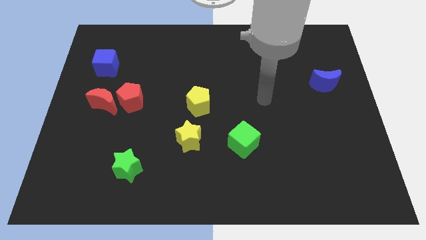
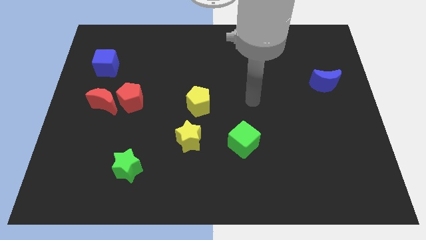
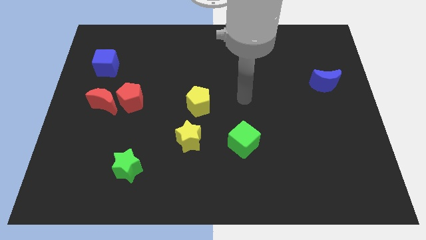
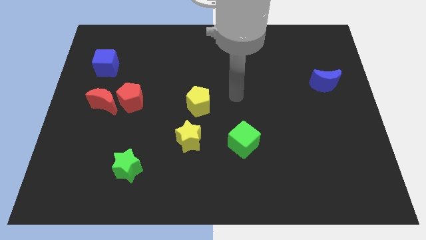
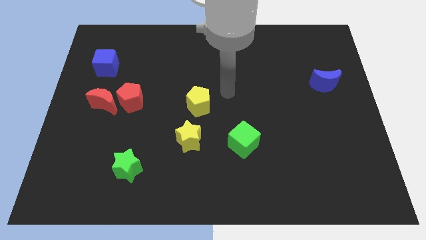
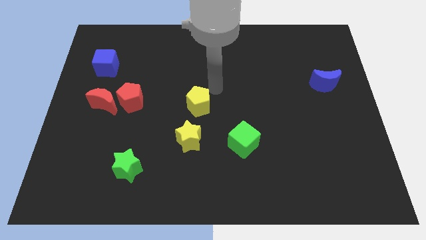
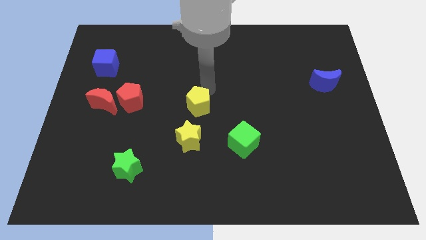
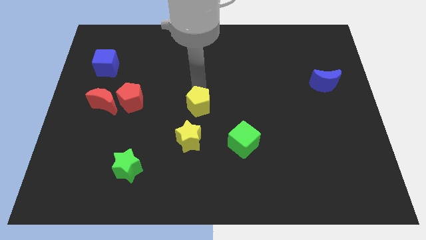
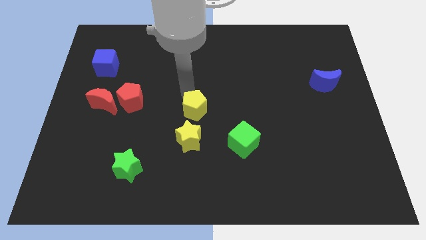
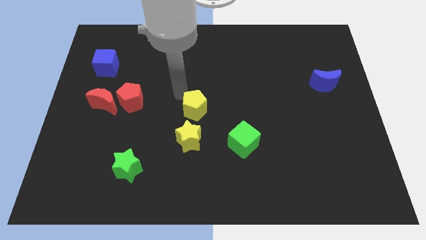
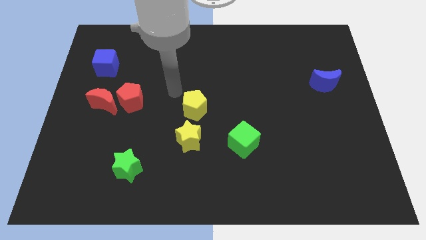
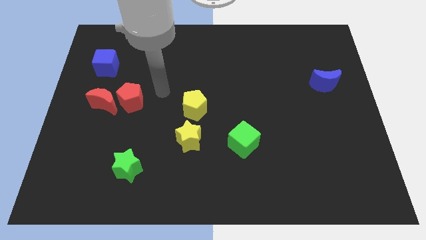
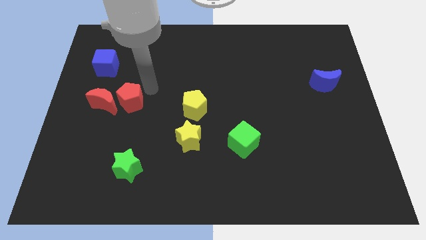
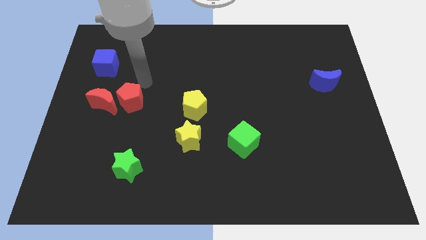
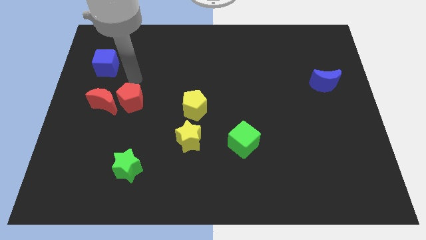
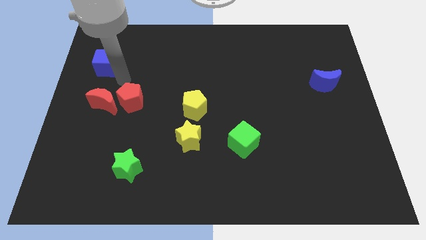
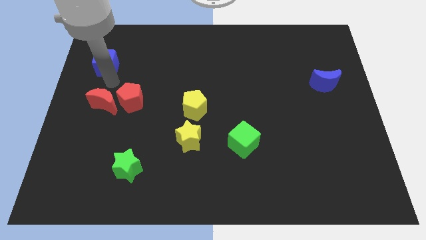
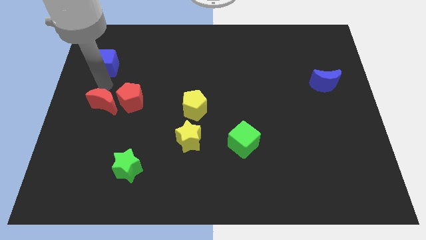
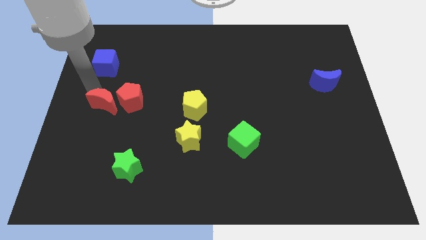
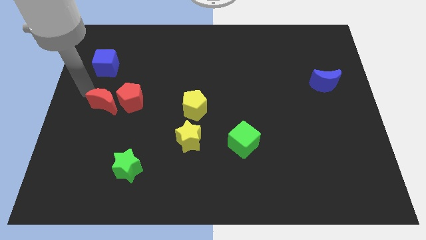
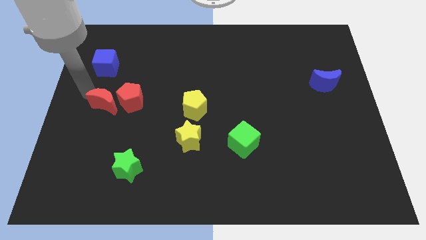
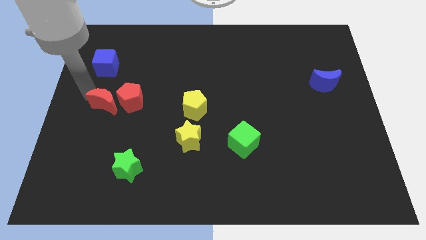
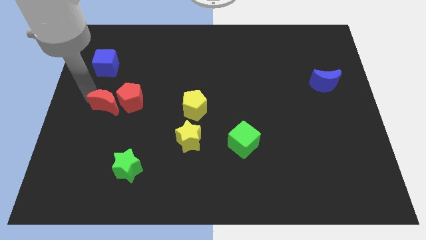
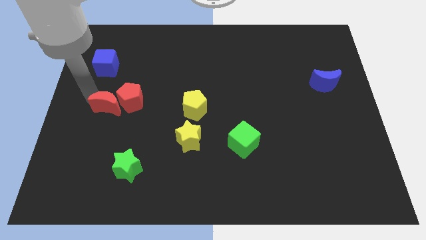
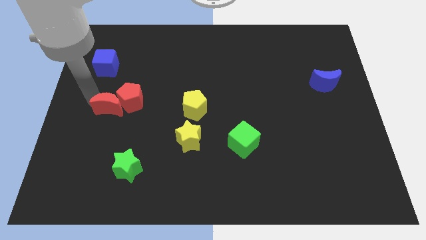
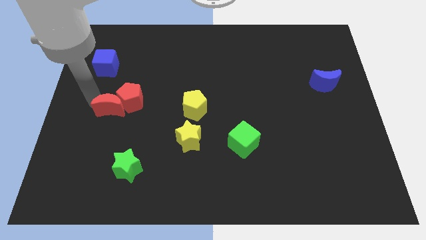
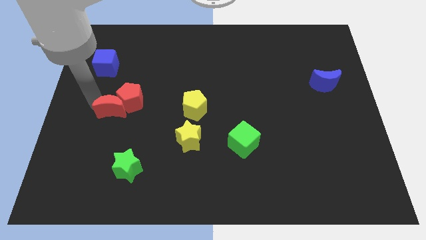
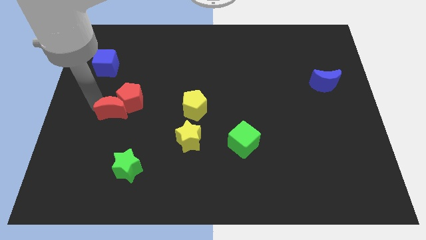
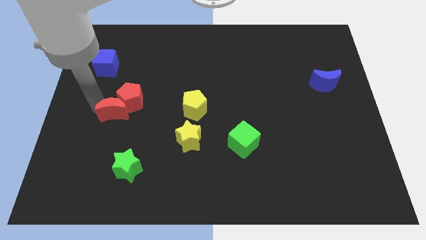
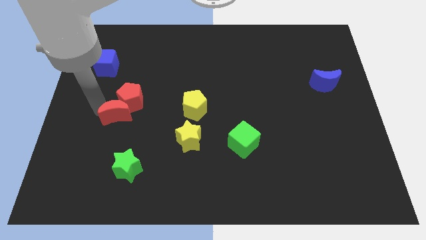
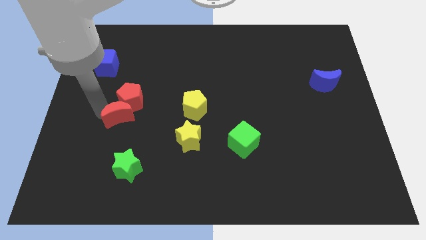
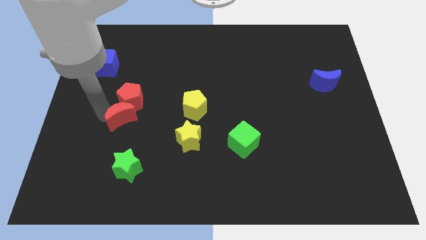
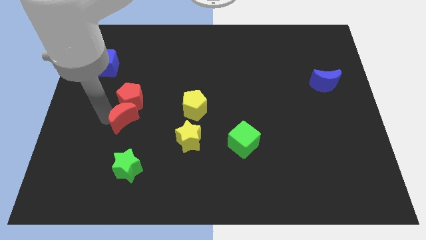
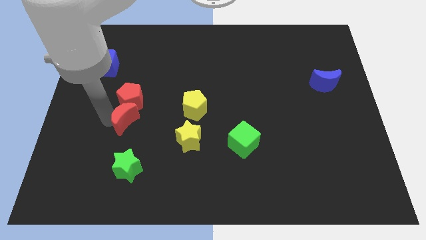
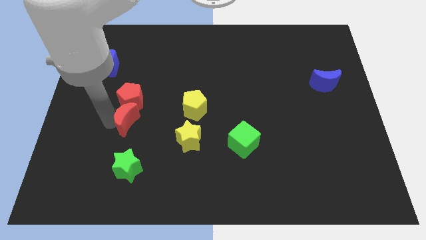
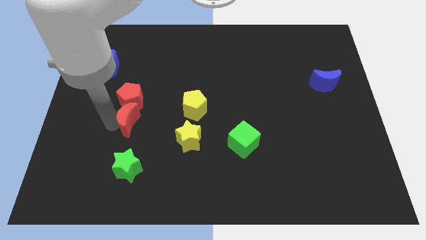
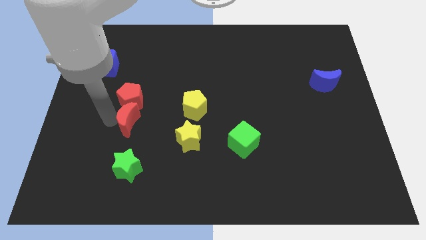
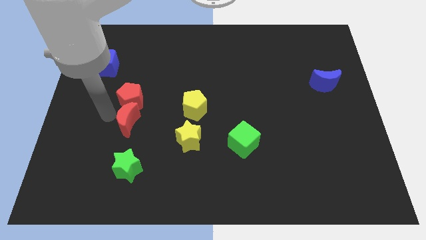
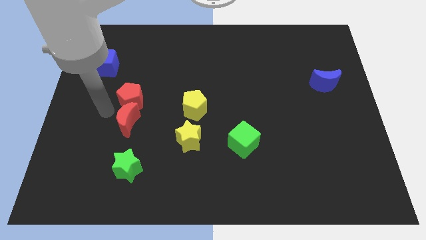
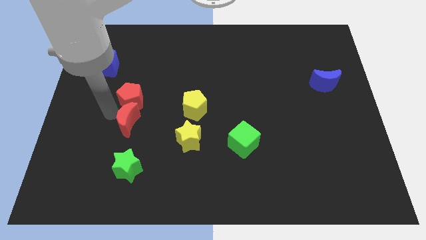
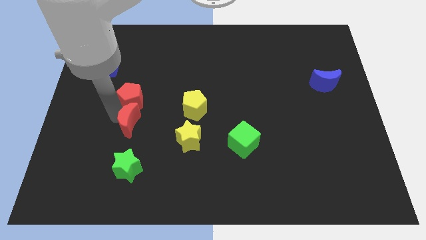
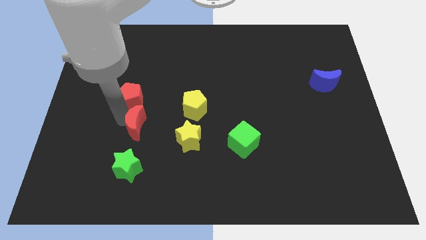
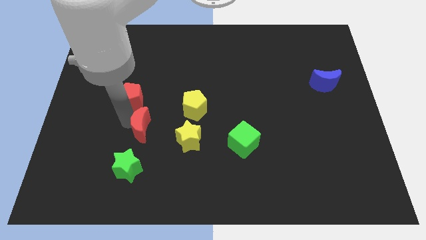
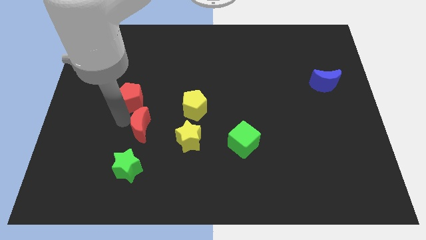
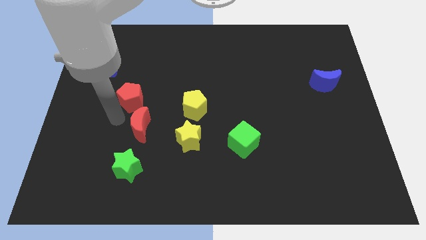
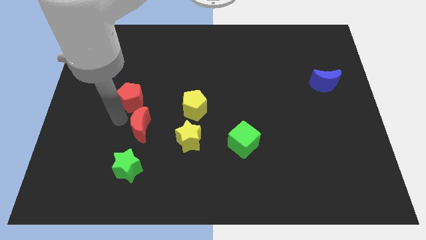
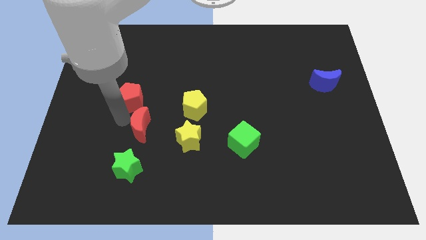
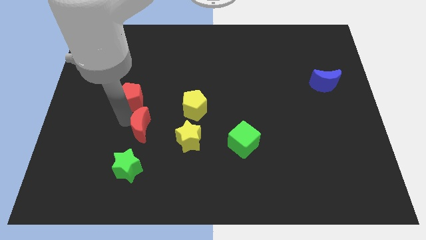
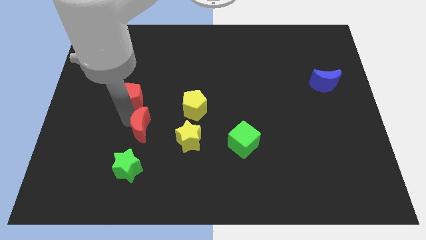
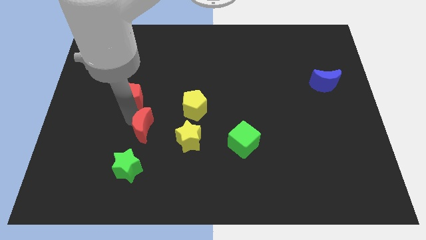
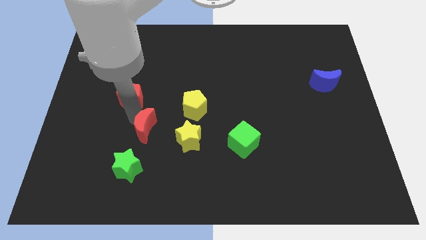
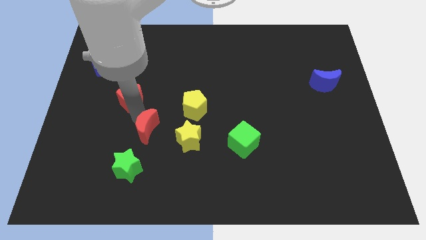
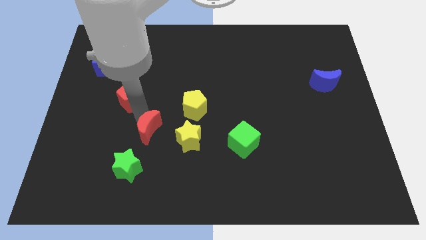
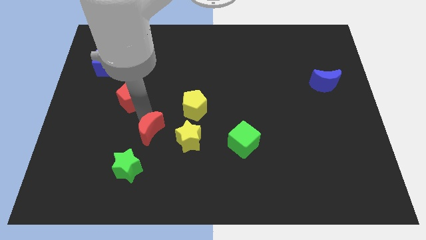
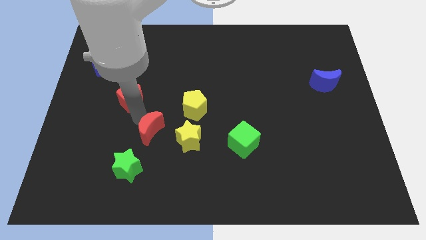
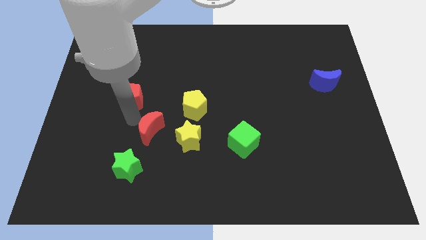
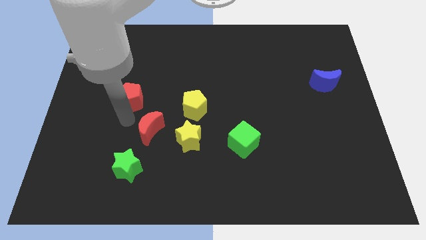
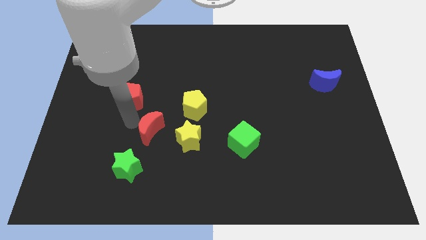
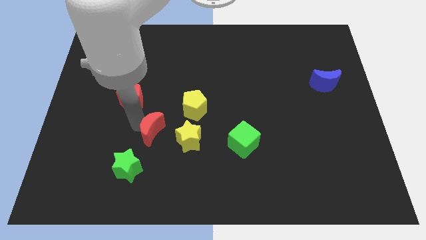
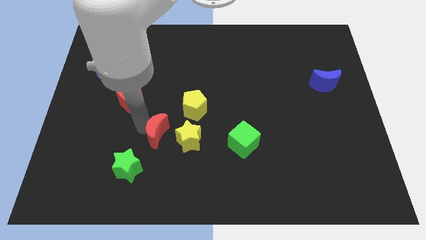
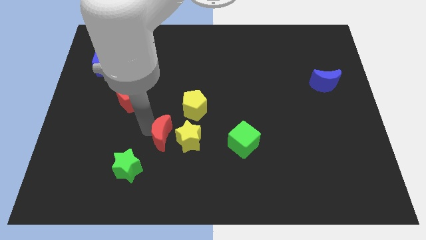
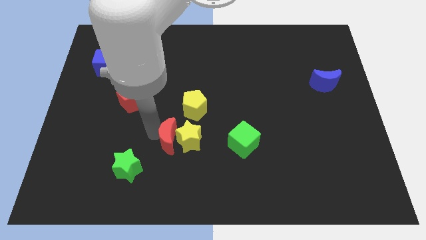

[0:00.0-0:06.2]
push the red moon next to the yellow star

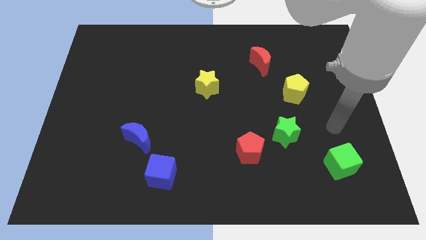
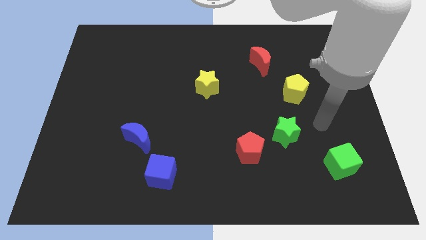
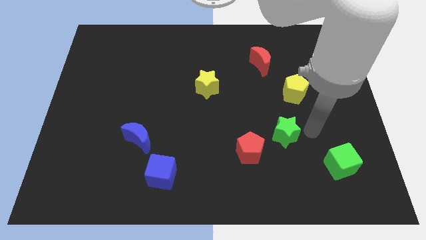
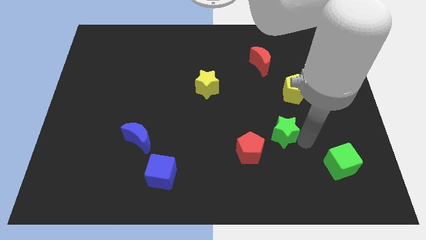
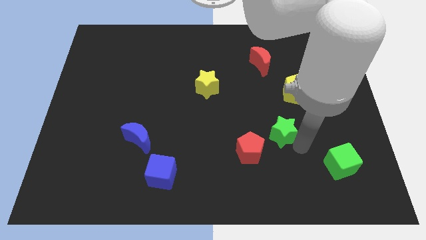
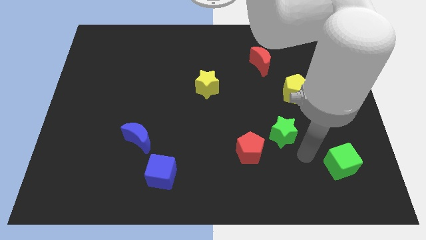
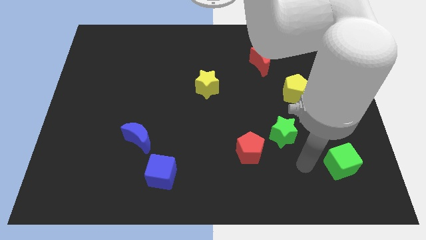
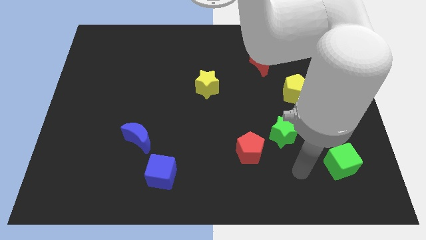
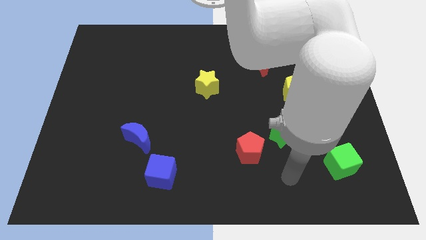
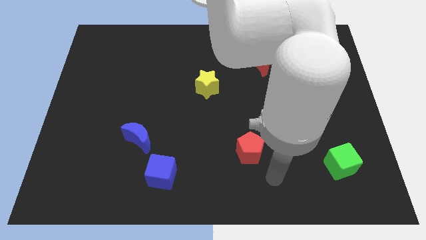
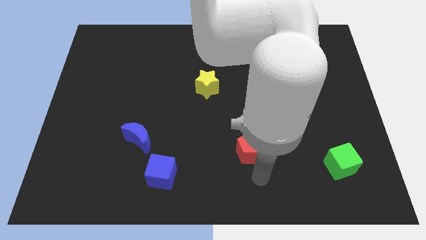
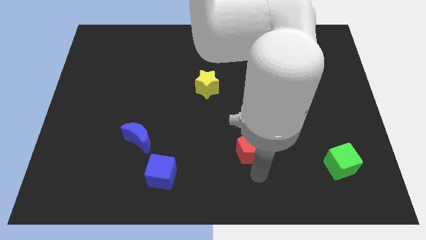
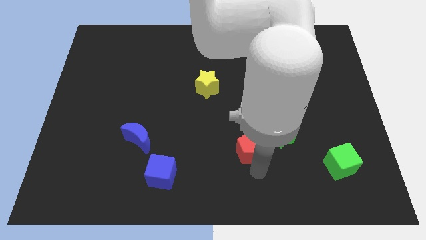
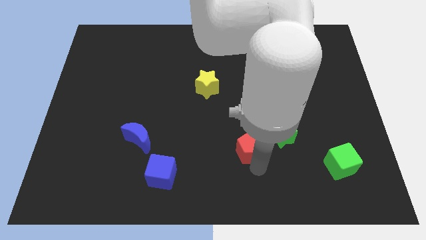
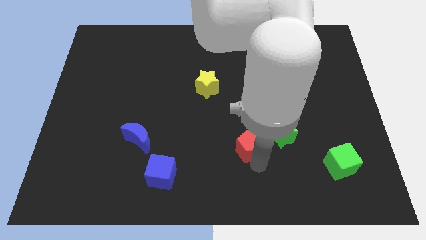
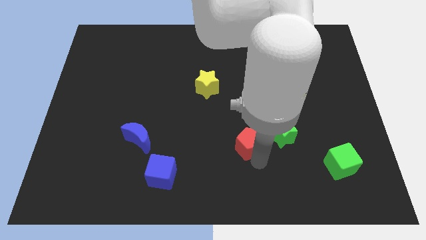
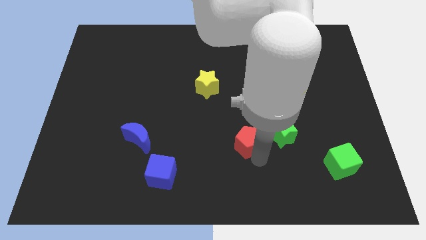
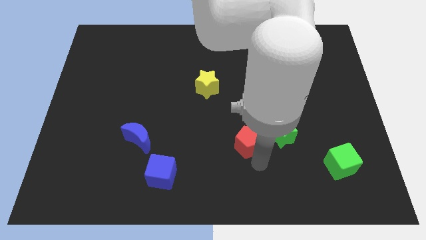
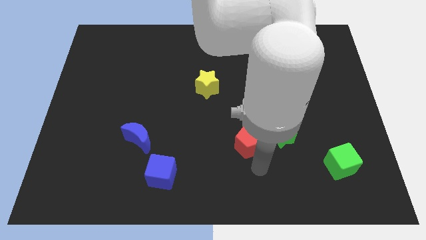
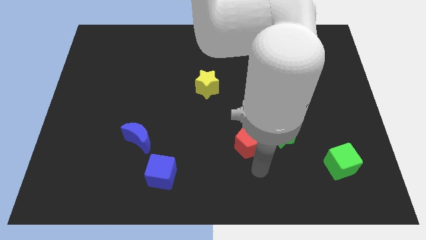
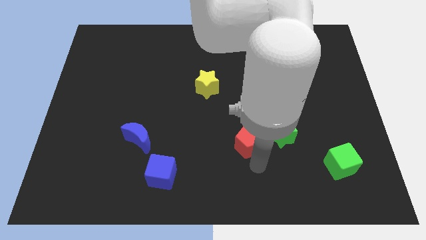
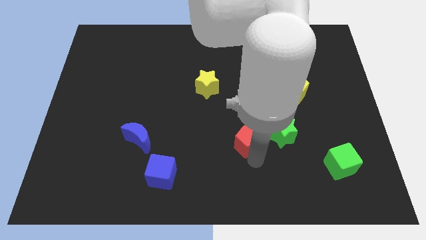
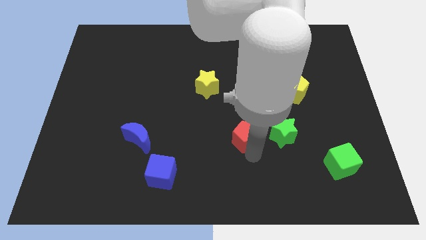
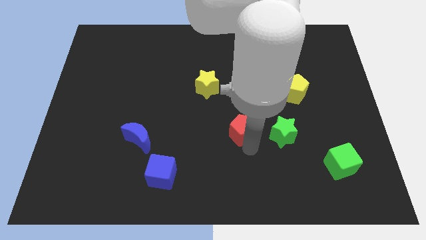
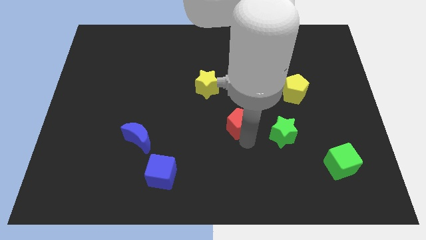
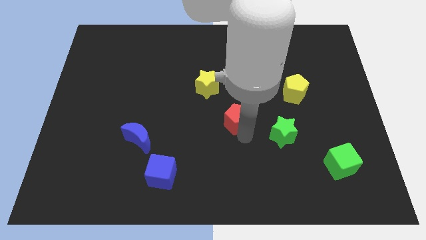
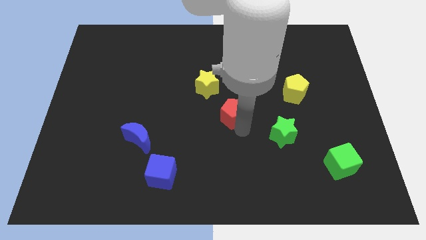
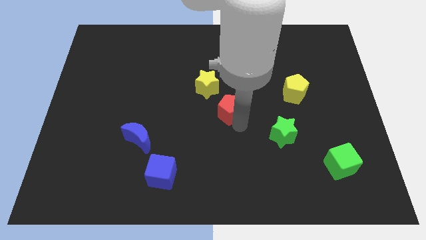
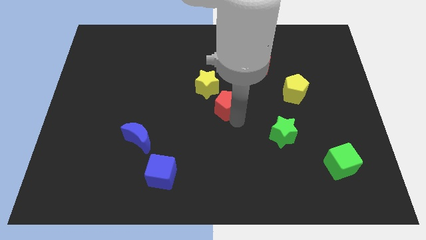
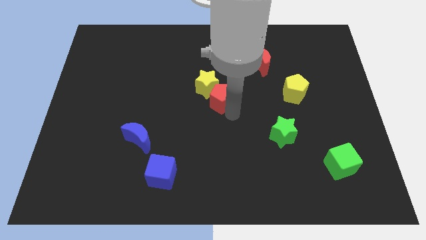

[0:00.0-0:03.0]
push the red pentagon towards the yellow star
